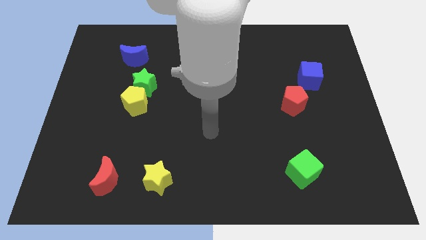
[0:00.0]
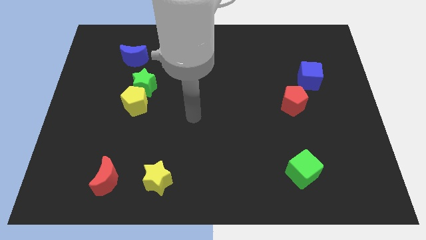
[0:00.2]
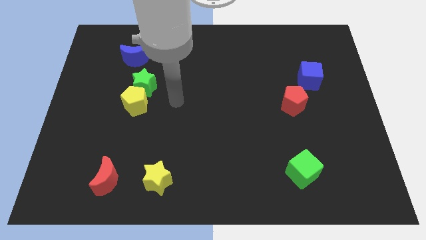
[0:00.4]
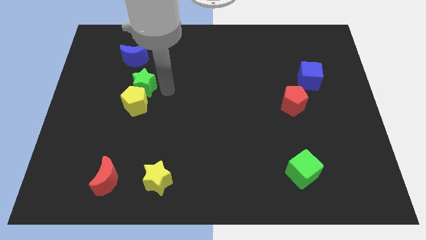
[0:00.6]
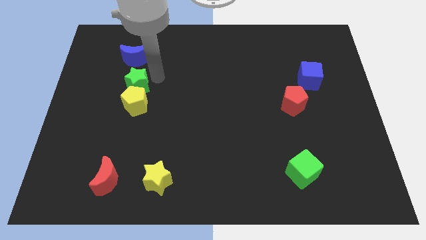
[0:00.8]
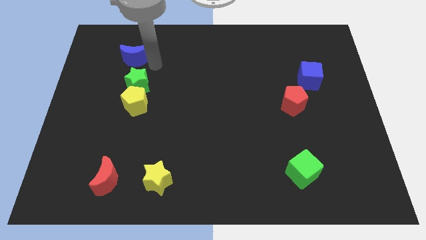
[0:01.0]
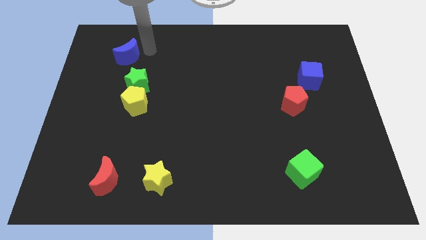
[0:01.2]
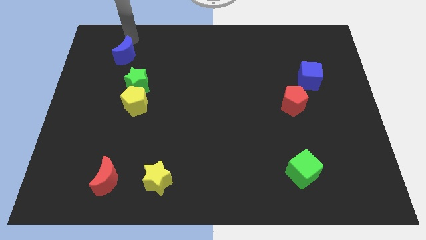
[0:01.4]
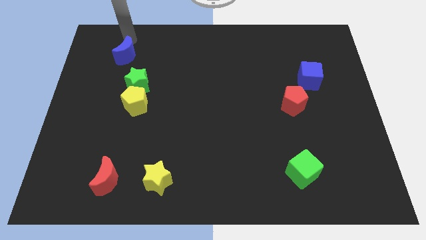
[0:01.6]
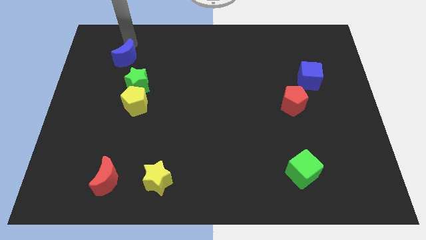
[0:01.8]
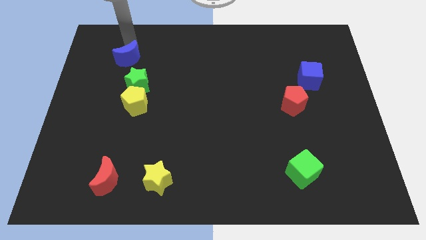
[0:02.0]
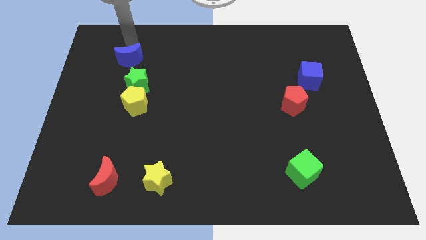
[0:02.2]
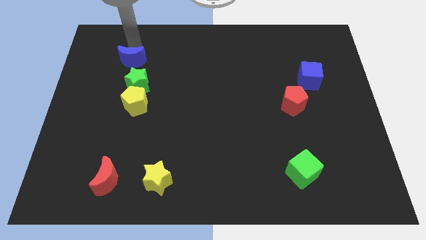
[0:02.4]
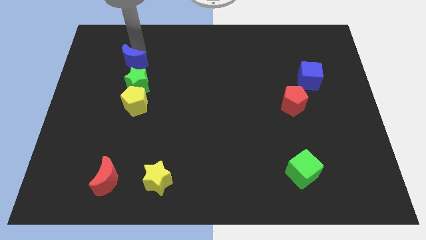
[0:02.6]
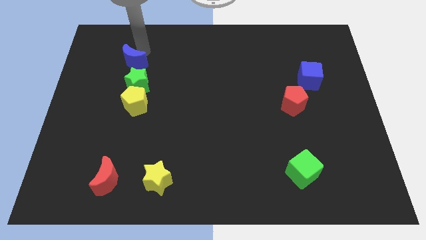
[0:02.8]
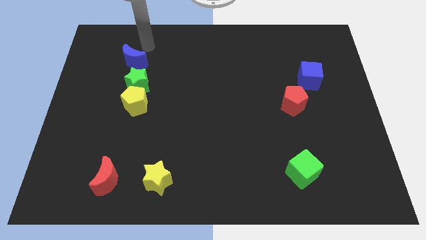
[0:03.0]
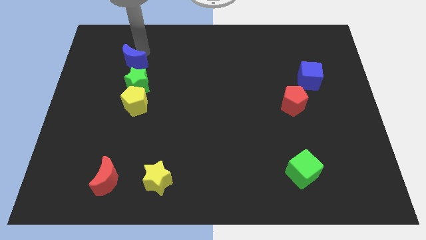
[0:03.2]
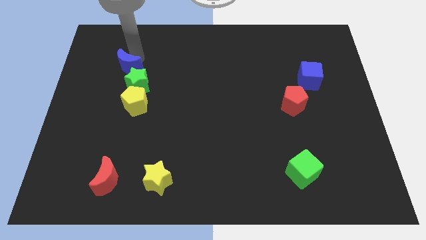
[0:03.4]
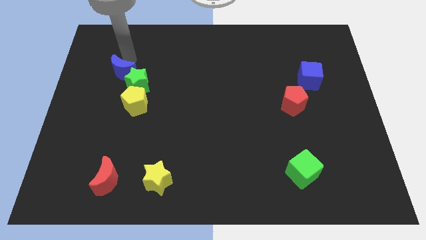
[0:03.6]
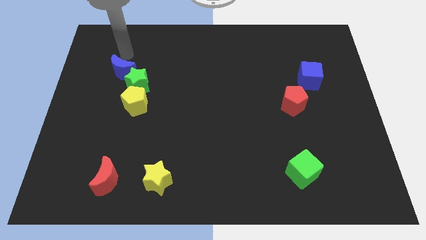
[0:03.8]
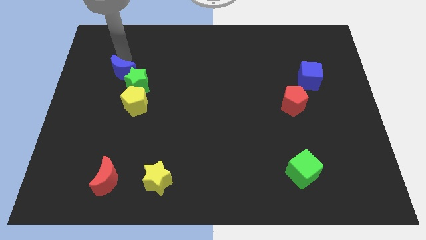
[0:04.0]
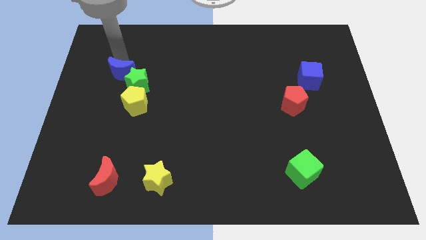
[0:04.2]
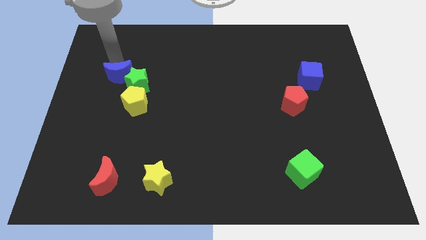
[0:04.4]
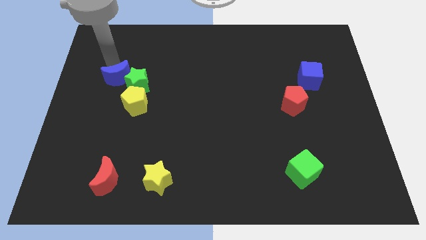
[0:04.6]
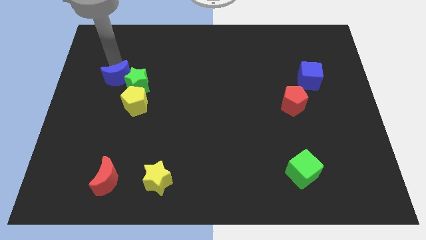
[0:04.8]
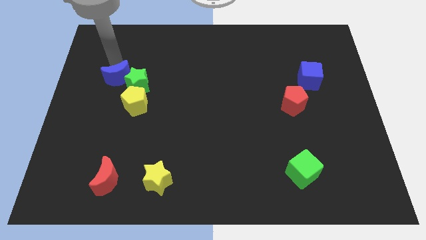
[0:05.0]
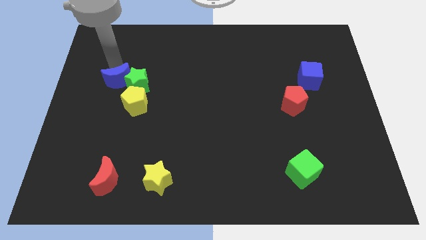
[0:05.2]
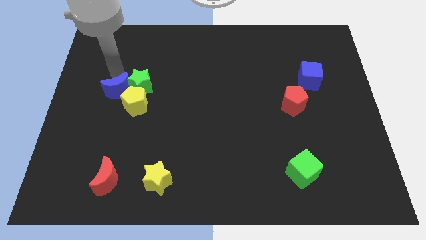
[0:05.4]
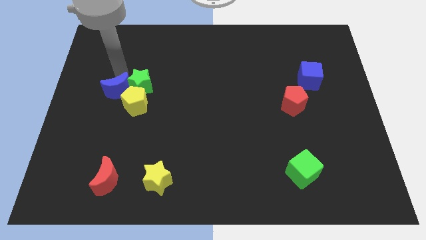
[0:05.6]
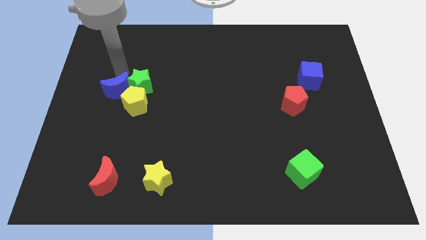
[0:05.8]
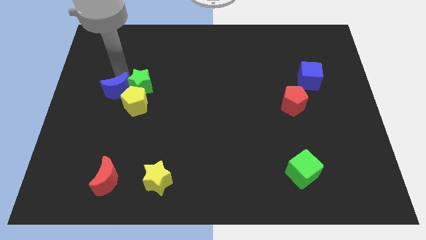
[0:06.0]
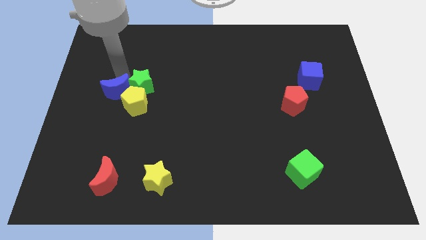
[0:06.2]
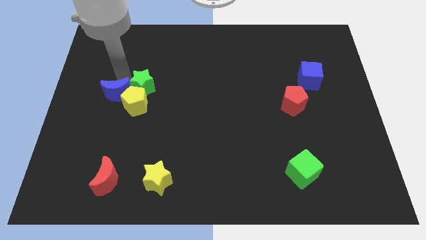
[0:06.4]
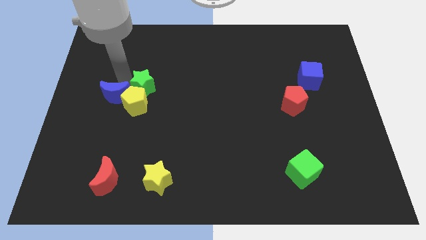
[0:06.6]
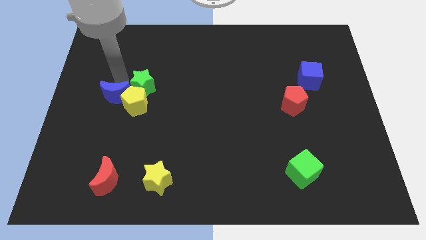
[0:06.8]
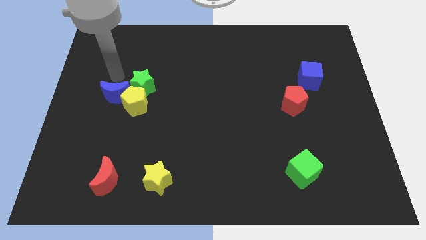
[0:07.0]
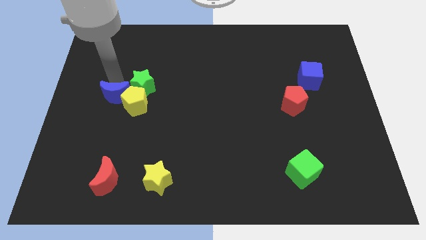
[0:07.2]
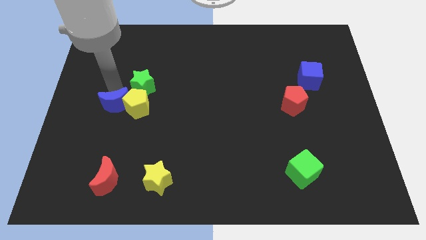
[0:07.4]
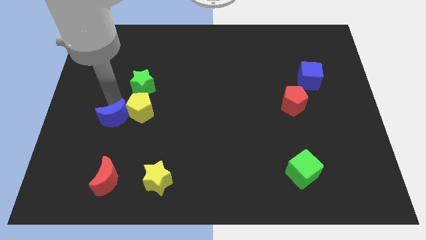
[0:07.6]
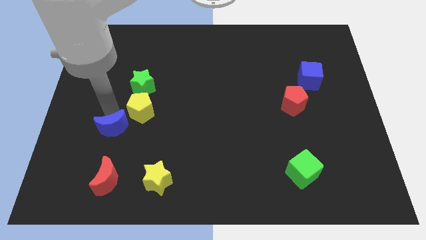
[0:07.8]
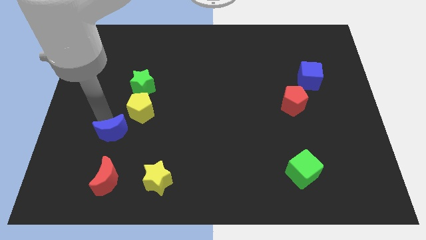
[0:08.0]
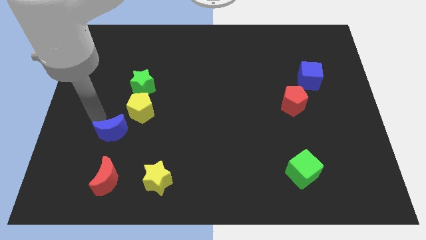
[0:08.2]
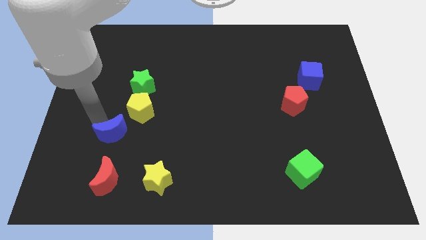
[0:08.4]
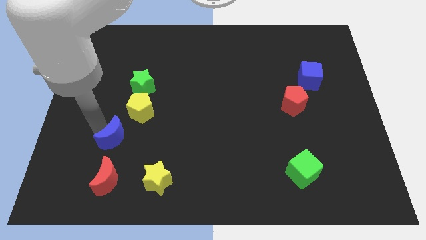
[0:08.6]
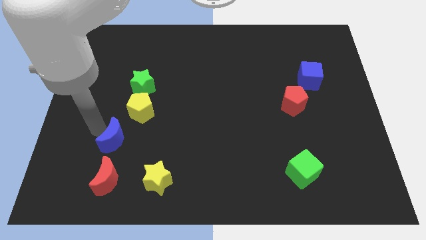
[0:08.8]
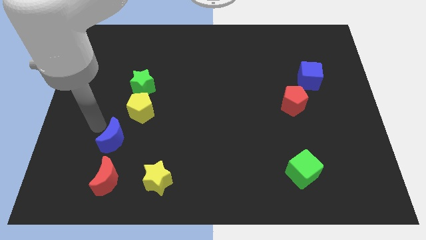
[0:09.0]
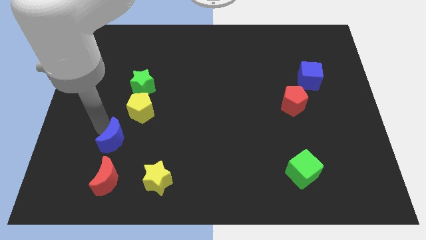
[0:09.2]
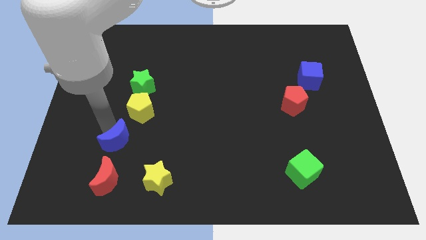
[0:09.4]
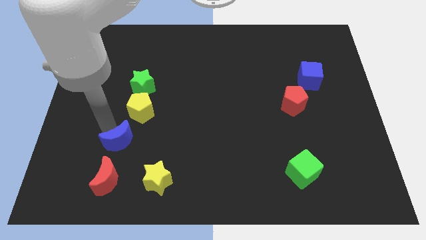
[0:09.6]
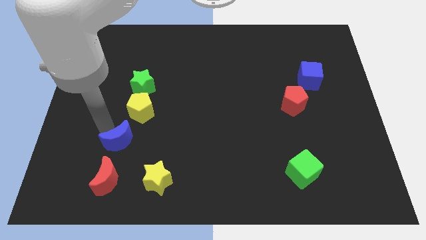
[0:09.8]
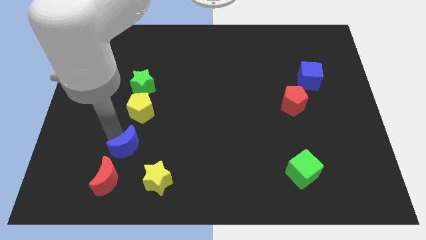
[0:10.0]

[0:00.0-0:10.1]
move the blue moon to the top right side of the red moon

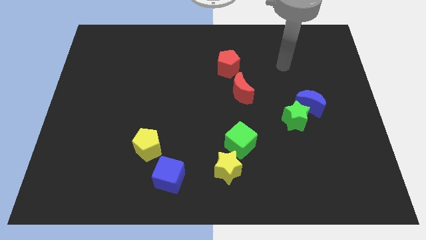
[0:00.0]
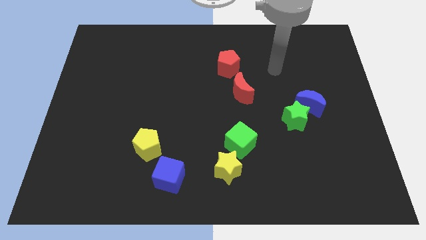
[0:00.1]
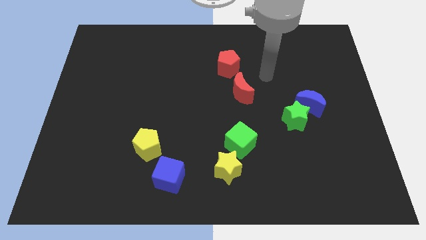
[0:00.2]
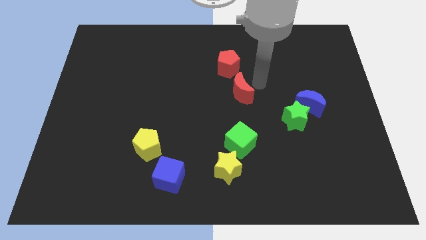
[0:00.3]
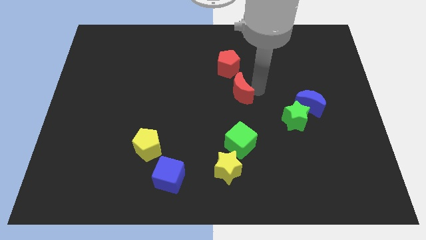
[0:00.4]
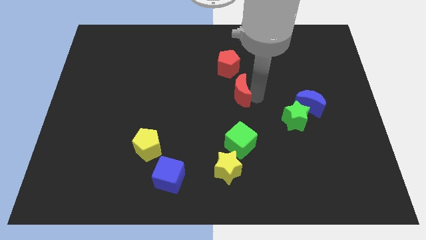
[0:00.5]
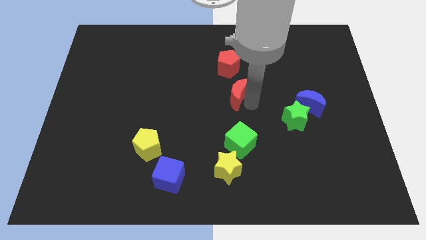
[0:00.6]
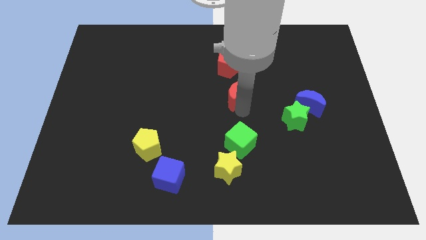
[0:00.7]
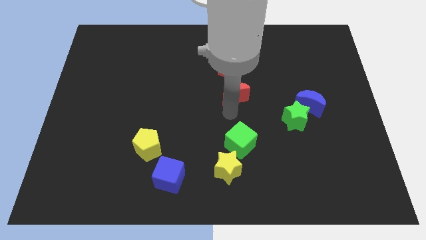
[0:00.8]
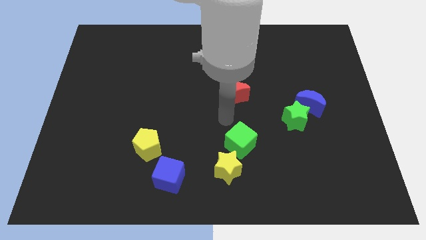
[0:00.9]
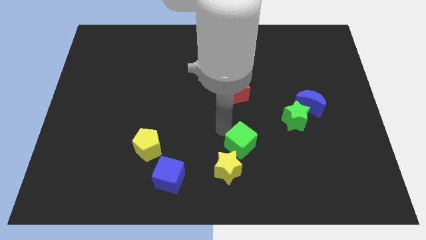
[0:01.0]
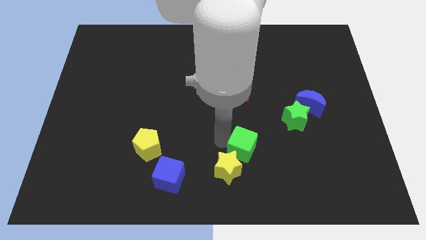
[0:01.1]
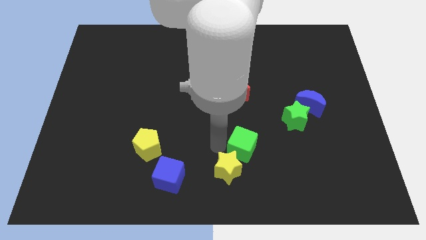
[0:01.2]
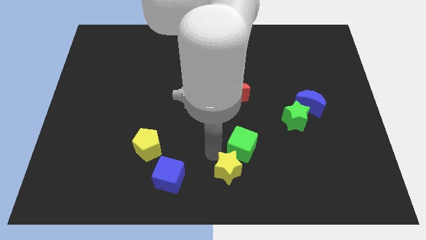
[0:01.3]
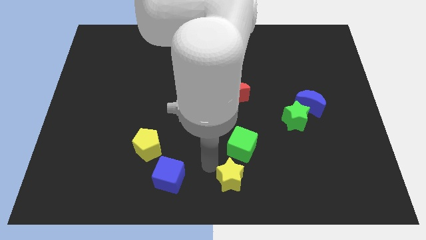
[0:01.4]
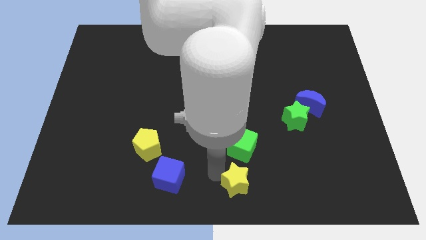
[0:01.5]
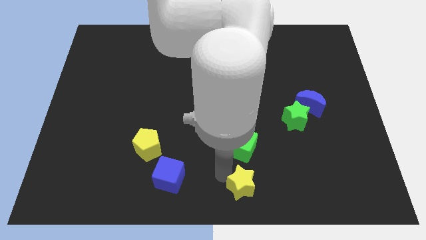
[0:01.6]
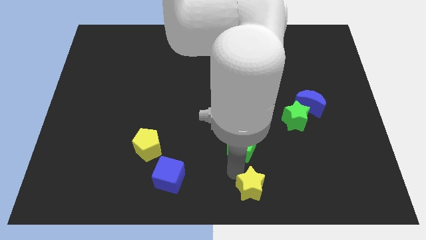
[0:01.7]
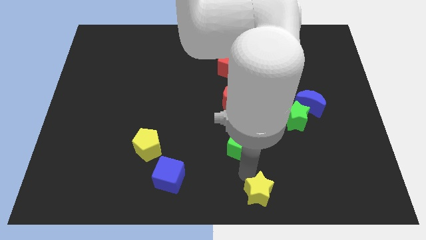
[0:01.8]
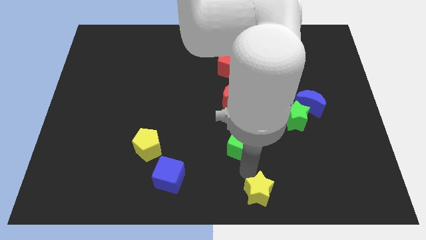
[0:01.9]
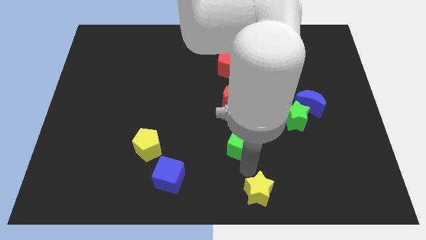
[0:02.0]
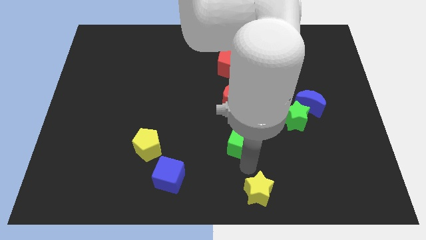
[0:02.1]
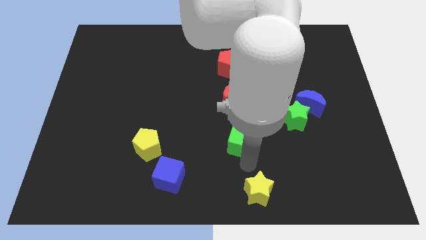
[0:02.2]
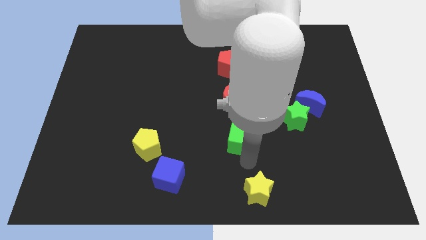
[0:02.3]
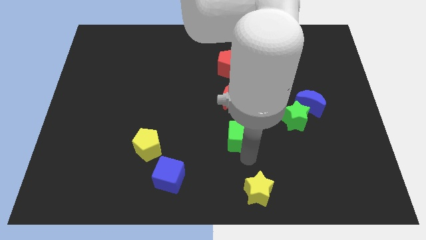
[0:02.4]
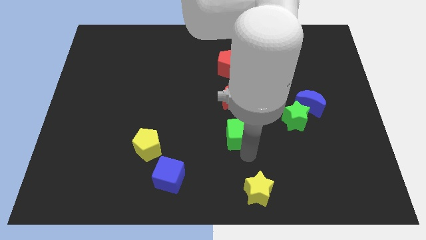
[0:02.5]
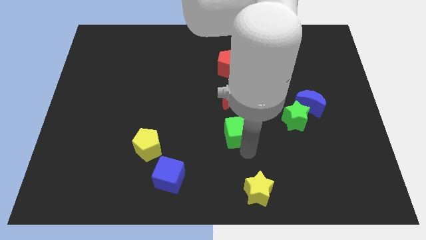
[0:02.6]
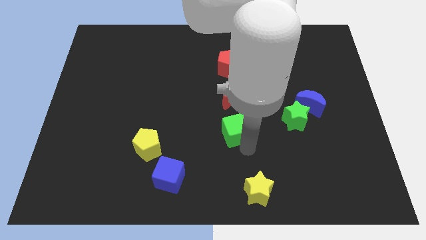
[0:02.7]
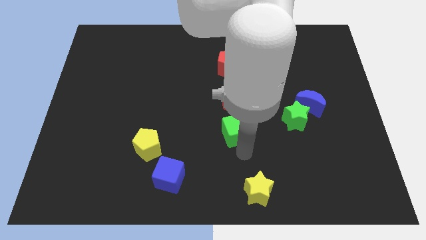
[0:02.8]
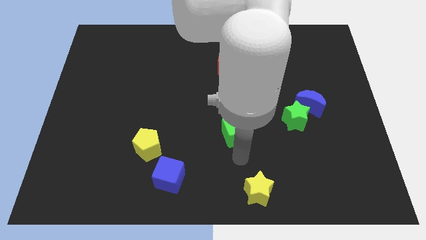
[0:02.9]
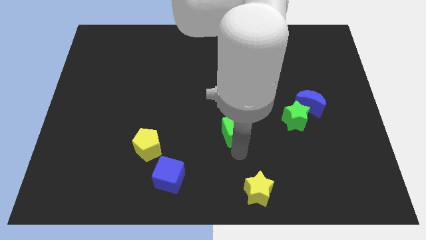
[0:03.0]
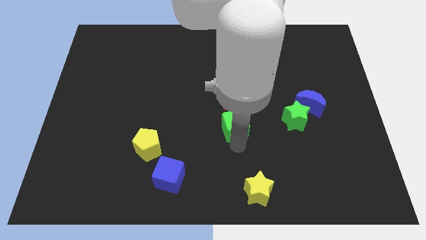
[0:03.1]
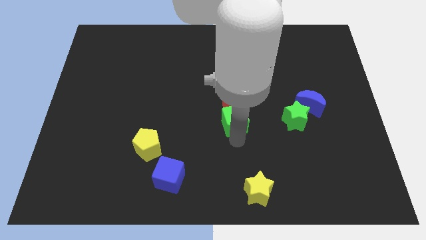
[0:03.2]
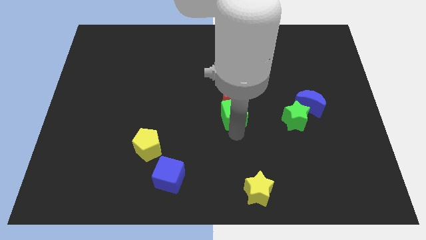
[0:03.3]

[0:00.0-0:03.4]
slide the green cube below the red pentagon
